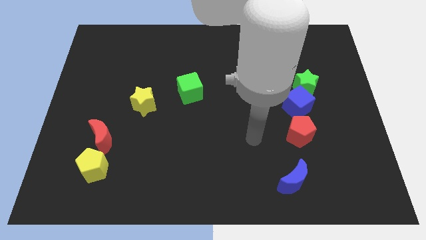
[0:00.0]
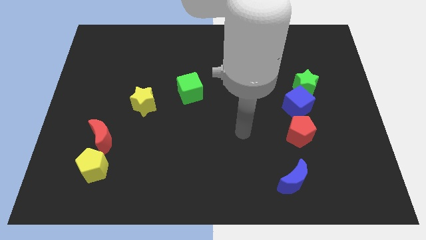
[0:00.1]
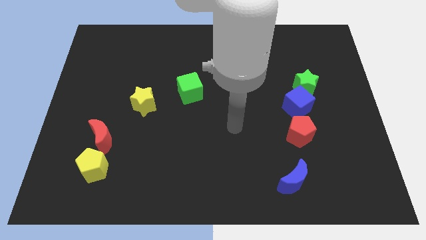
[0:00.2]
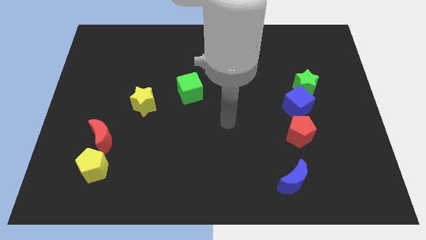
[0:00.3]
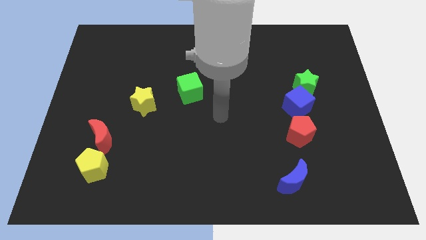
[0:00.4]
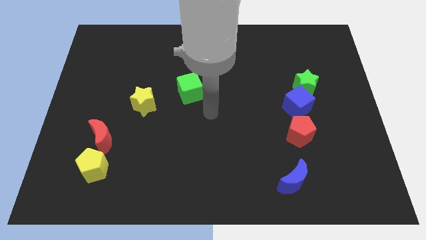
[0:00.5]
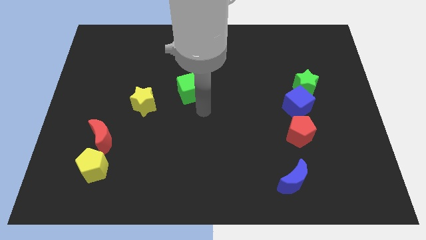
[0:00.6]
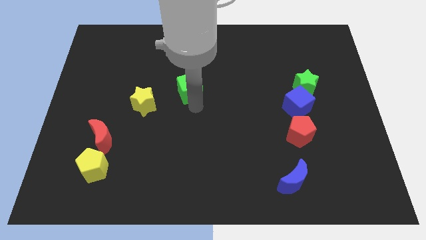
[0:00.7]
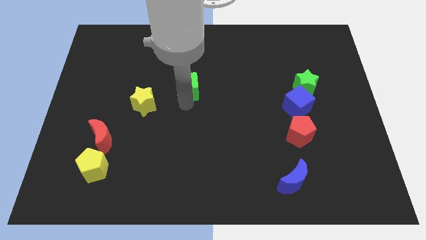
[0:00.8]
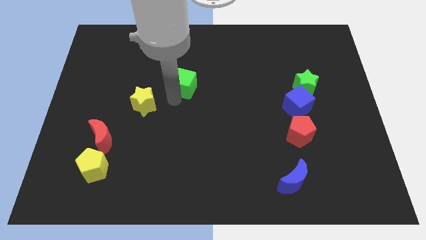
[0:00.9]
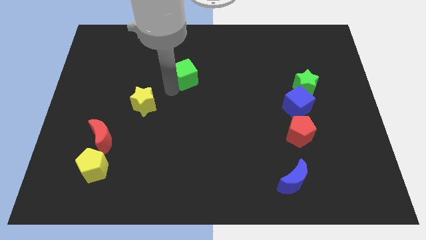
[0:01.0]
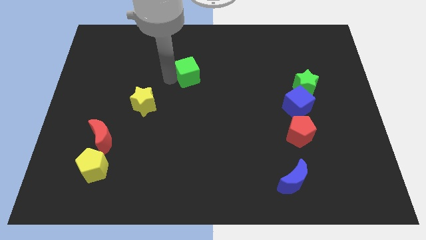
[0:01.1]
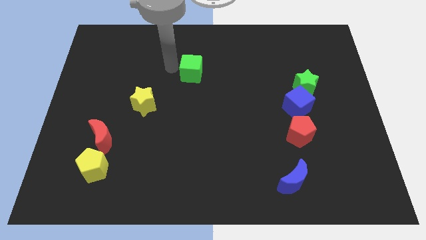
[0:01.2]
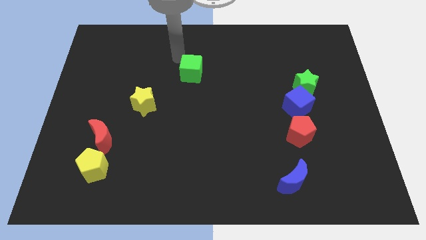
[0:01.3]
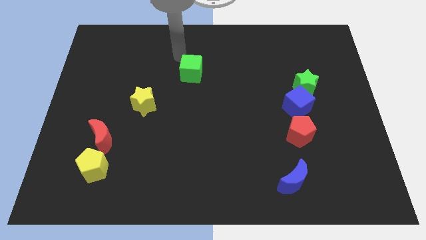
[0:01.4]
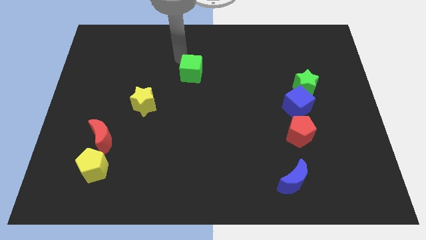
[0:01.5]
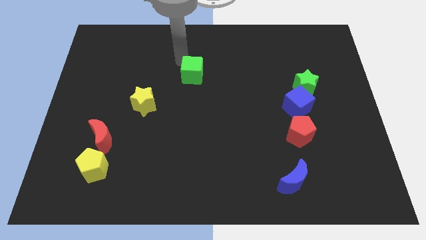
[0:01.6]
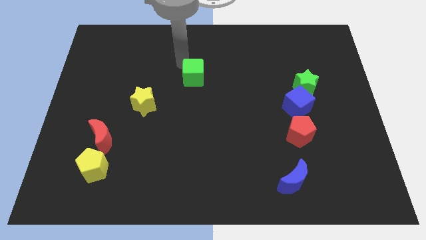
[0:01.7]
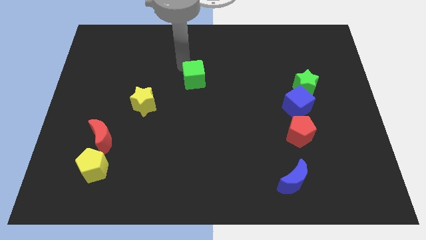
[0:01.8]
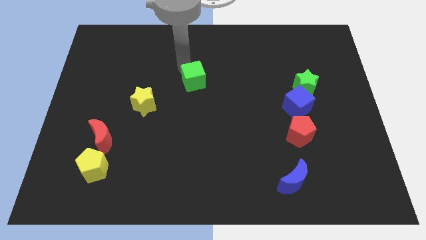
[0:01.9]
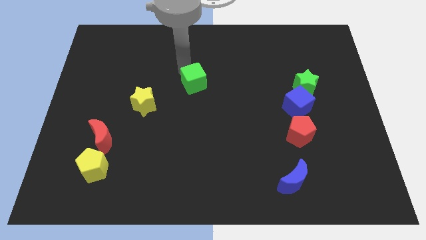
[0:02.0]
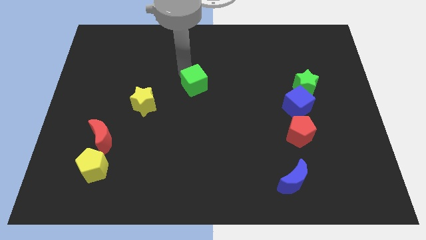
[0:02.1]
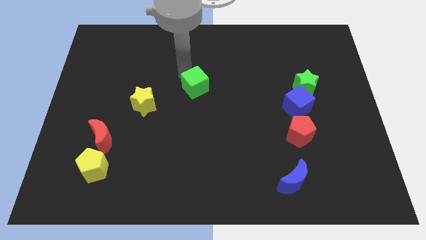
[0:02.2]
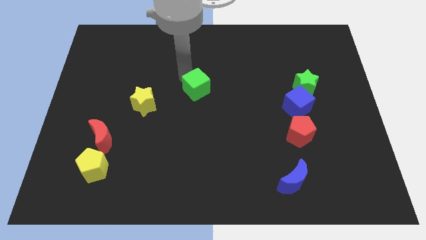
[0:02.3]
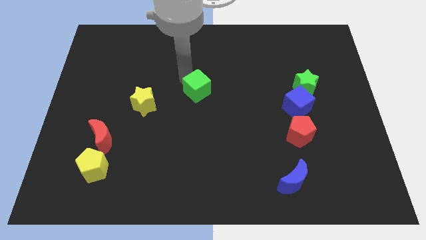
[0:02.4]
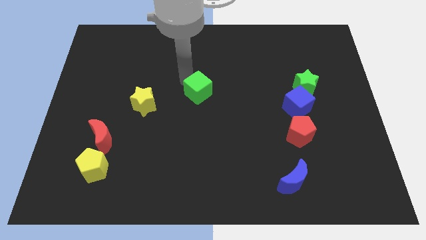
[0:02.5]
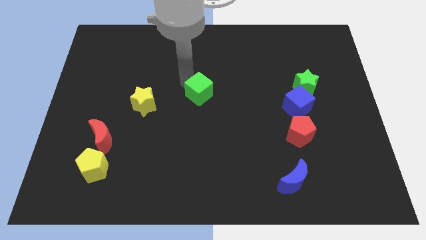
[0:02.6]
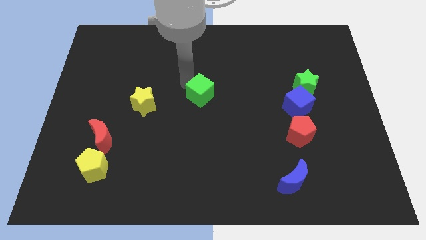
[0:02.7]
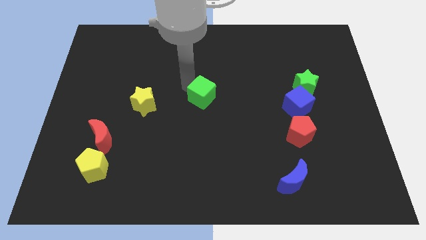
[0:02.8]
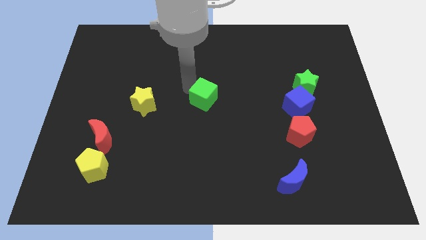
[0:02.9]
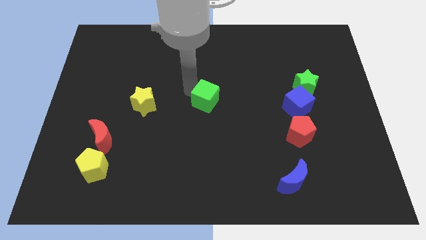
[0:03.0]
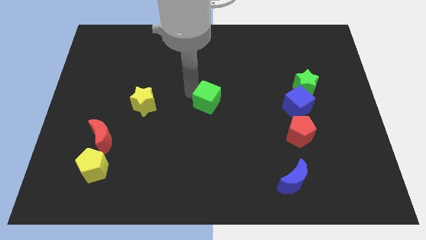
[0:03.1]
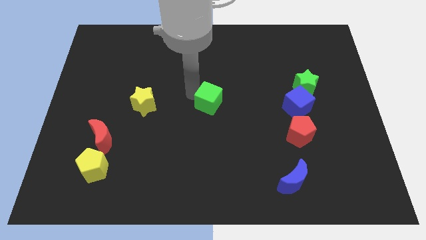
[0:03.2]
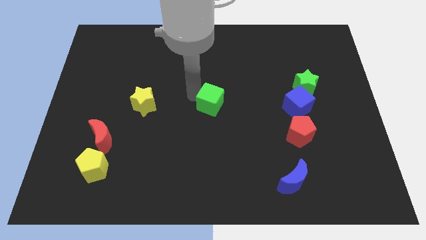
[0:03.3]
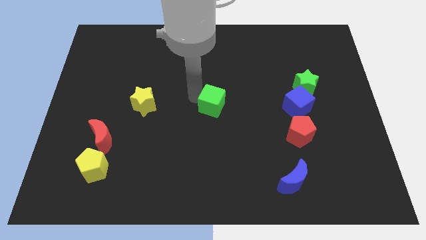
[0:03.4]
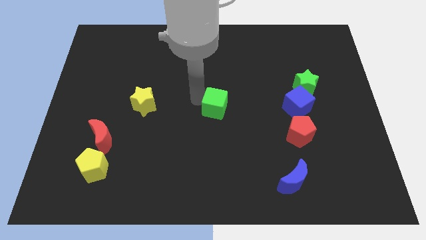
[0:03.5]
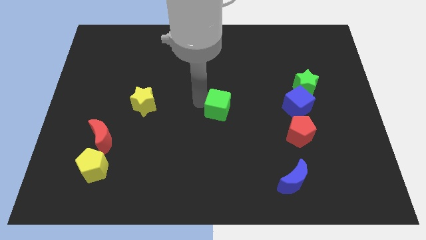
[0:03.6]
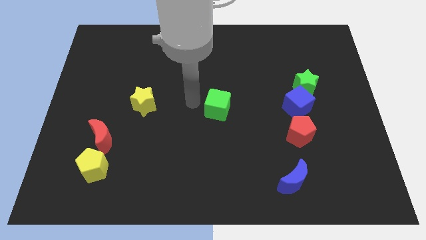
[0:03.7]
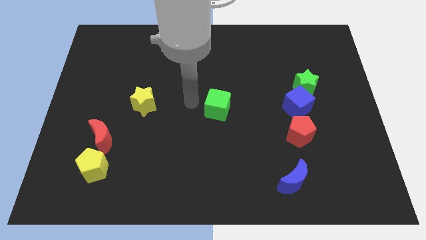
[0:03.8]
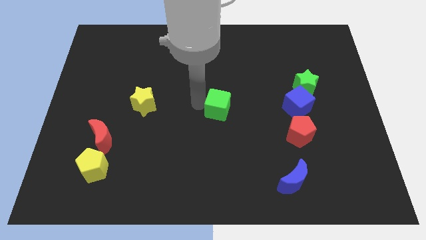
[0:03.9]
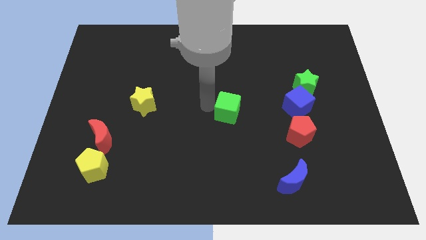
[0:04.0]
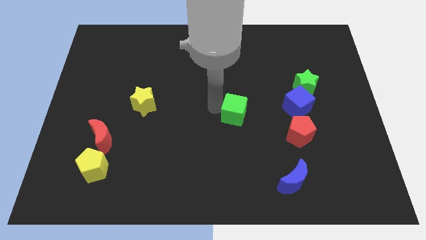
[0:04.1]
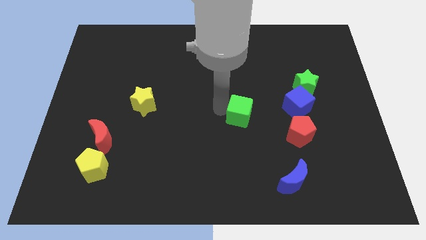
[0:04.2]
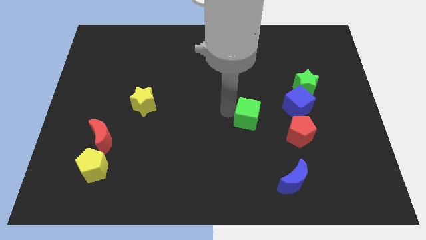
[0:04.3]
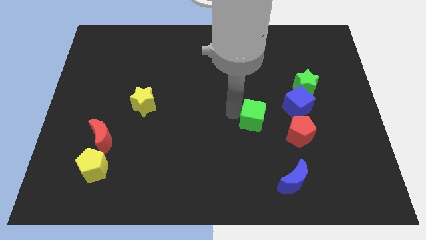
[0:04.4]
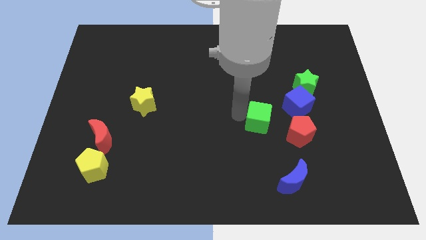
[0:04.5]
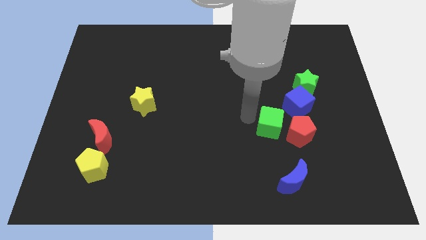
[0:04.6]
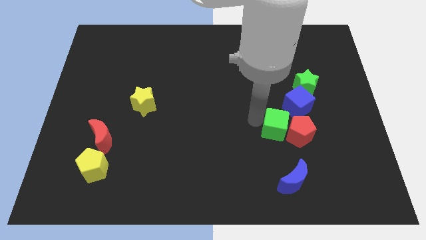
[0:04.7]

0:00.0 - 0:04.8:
slide the green cube to the red pentagon

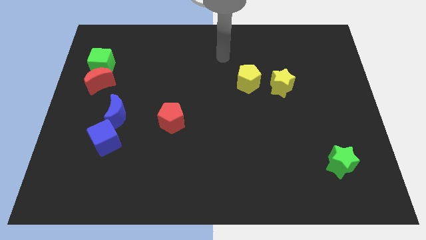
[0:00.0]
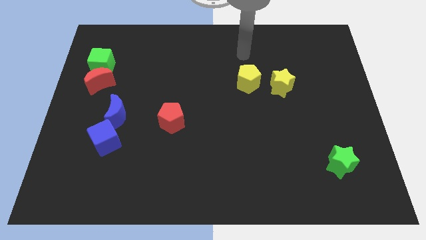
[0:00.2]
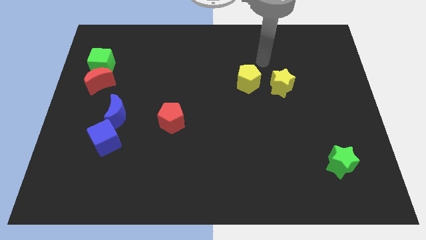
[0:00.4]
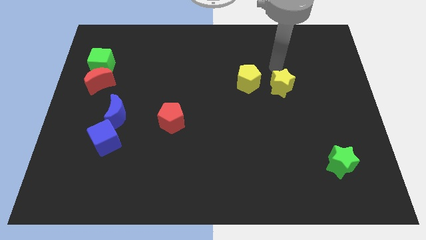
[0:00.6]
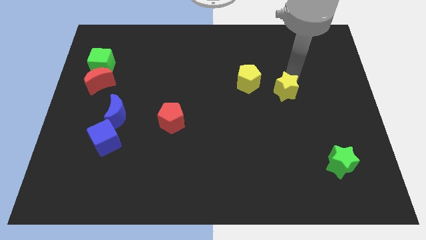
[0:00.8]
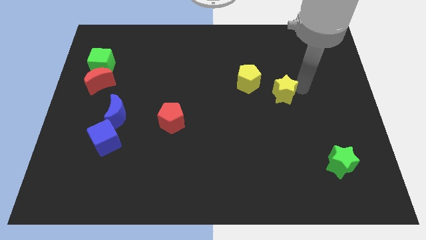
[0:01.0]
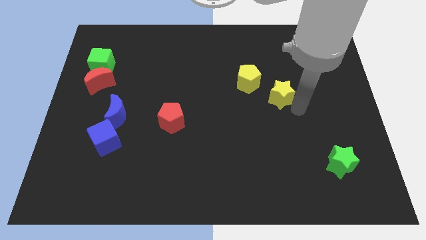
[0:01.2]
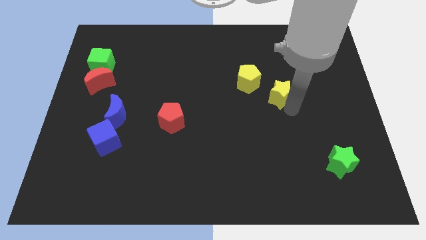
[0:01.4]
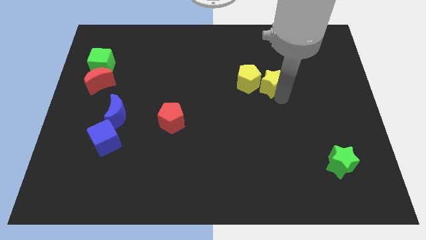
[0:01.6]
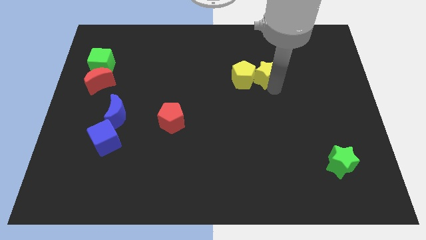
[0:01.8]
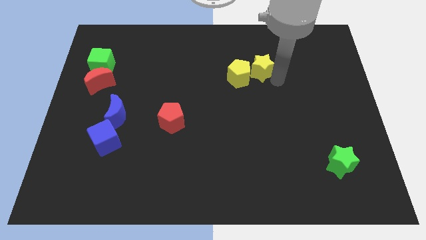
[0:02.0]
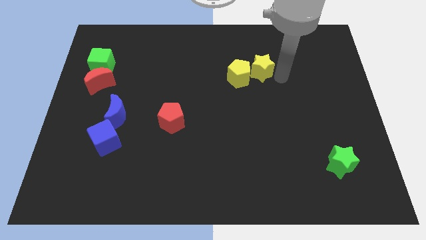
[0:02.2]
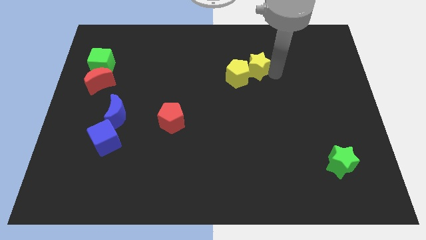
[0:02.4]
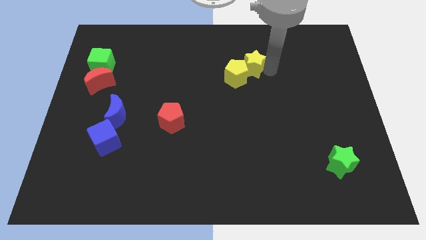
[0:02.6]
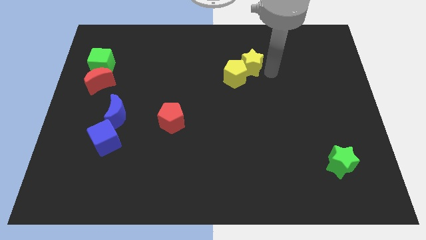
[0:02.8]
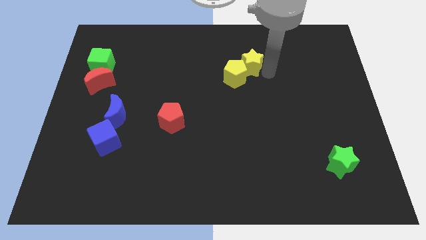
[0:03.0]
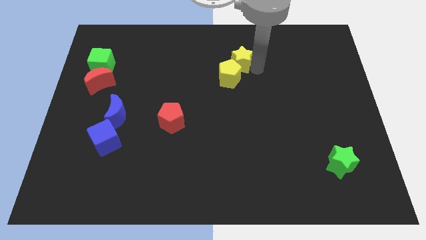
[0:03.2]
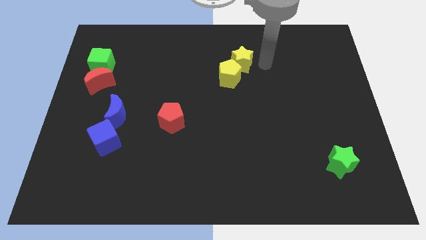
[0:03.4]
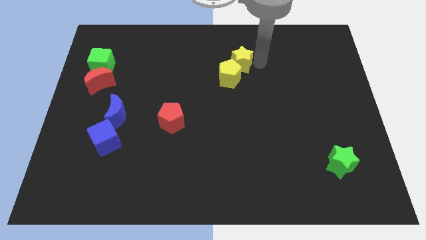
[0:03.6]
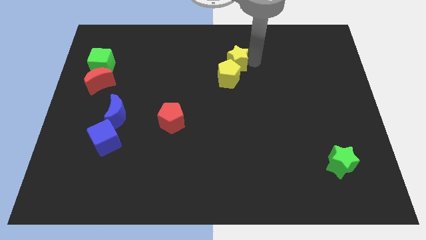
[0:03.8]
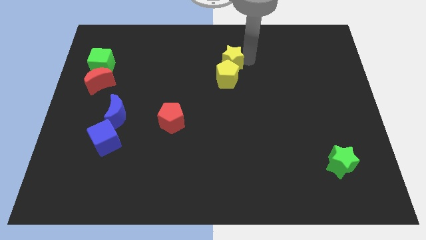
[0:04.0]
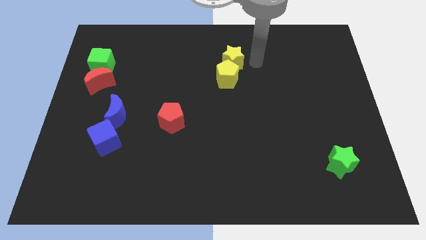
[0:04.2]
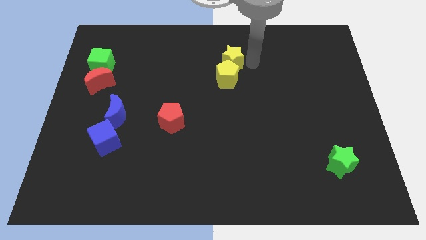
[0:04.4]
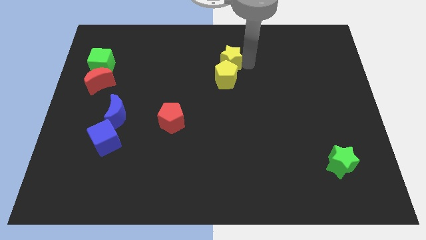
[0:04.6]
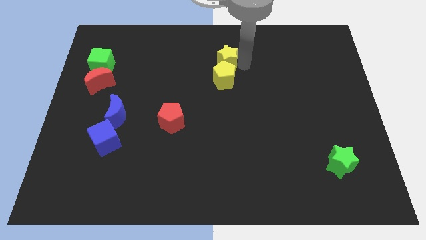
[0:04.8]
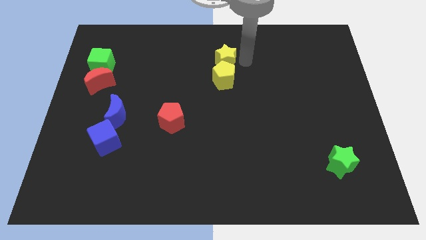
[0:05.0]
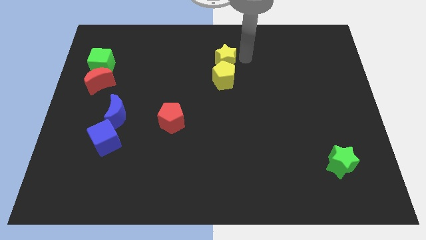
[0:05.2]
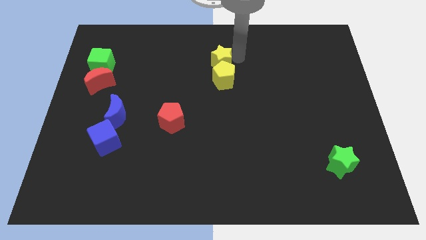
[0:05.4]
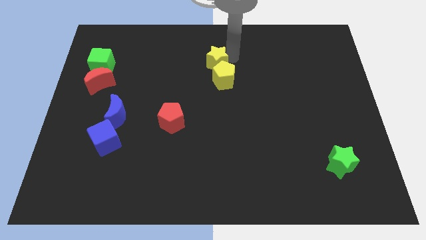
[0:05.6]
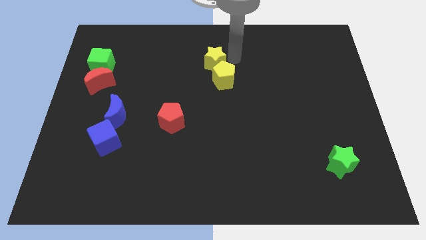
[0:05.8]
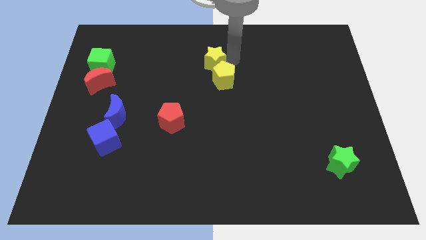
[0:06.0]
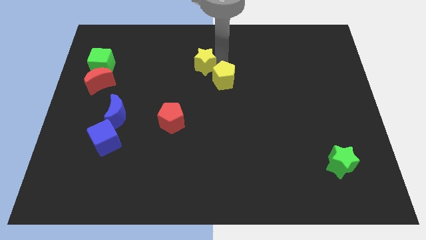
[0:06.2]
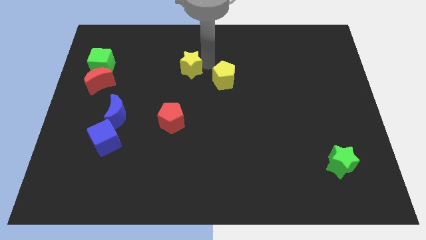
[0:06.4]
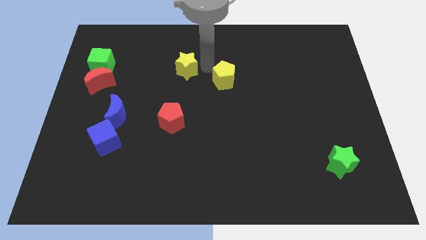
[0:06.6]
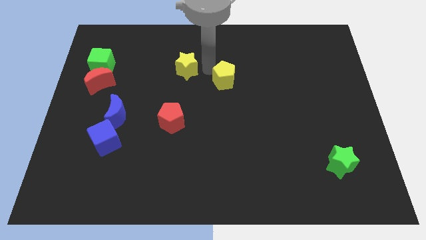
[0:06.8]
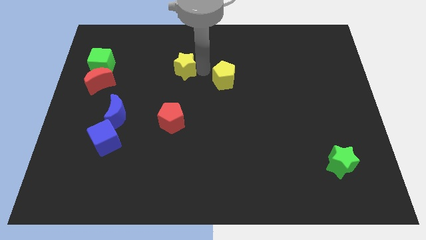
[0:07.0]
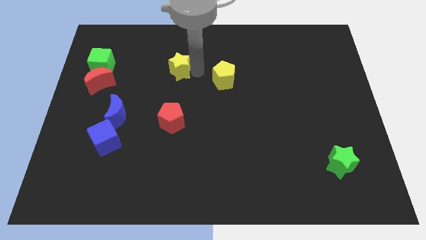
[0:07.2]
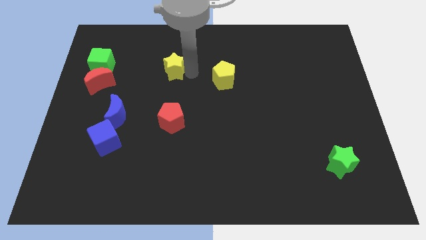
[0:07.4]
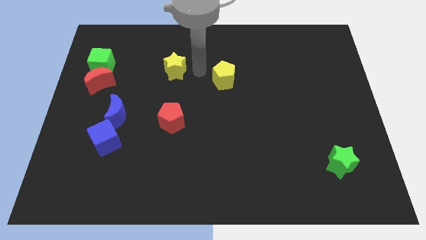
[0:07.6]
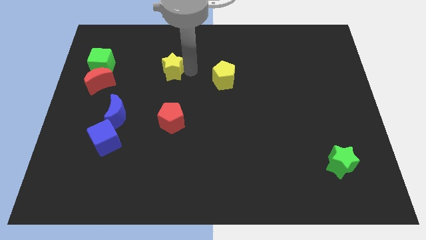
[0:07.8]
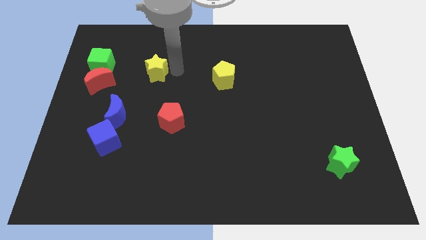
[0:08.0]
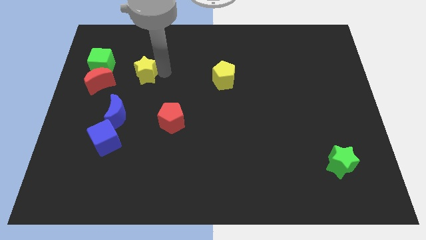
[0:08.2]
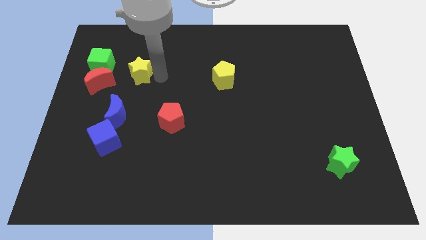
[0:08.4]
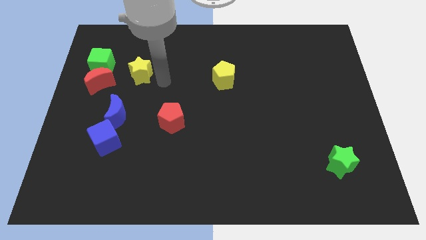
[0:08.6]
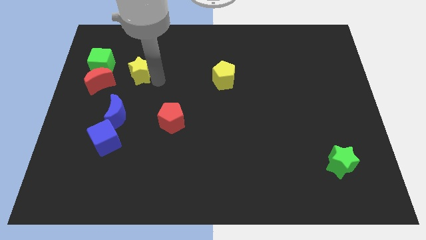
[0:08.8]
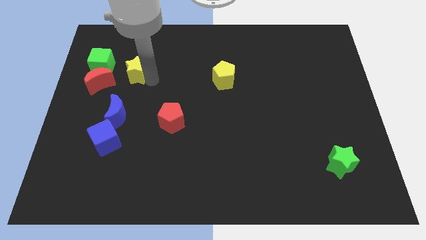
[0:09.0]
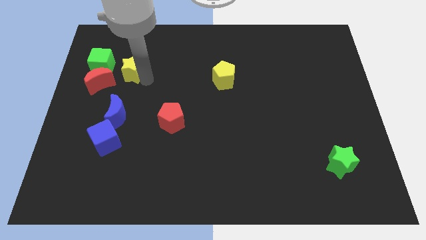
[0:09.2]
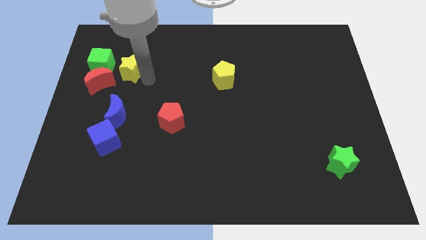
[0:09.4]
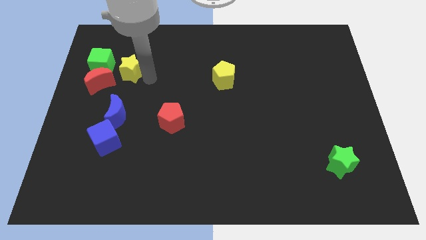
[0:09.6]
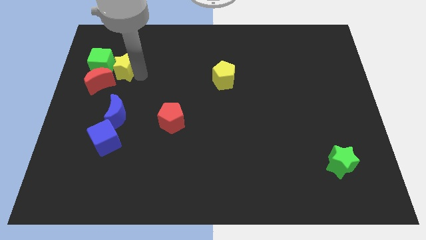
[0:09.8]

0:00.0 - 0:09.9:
put the yellow star to the green cube
